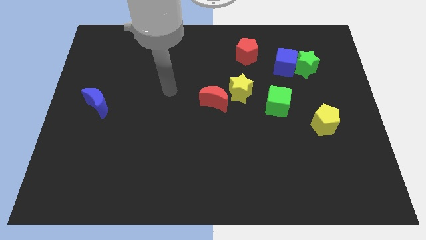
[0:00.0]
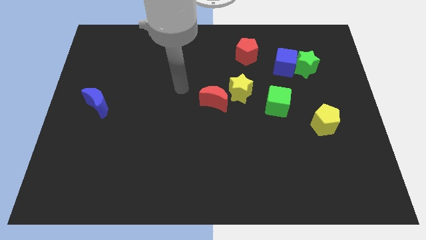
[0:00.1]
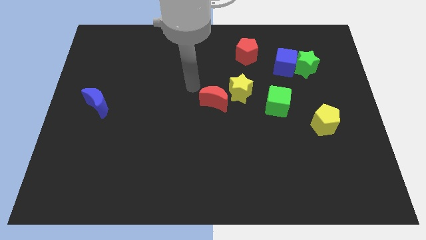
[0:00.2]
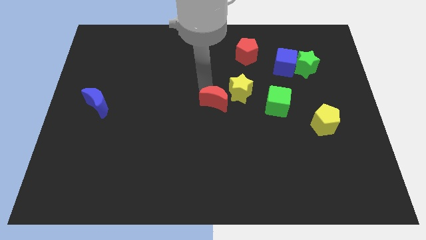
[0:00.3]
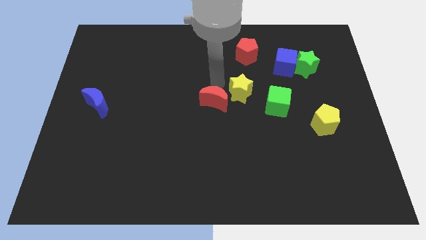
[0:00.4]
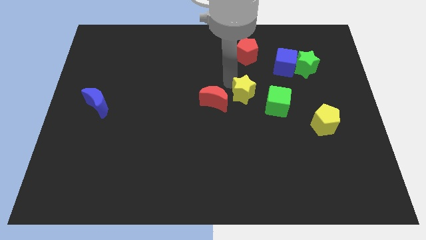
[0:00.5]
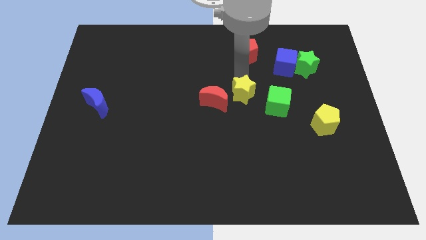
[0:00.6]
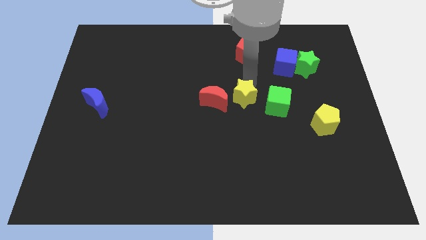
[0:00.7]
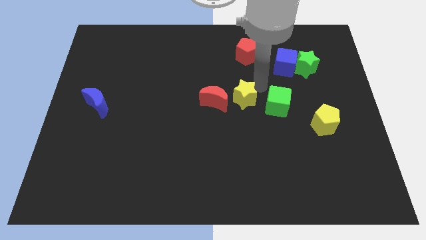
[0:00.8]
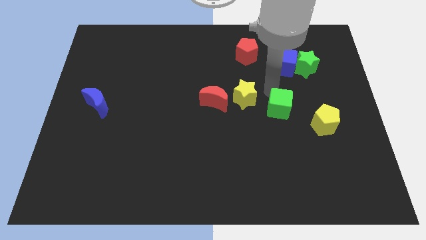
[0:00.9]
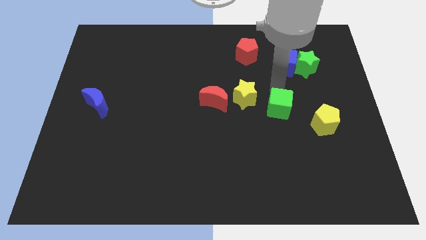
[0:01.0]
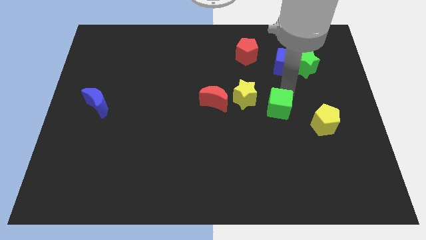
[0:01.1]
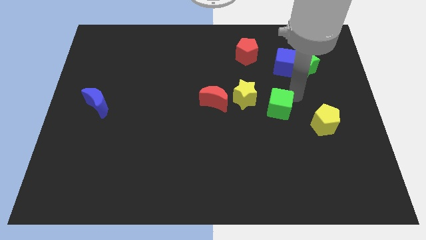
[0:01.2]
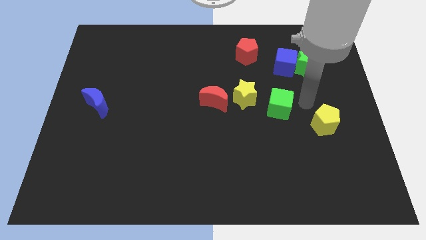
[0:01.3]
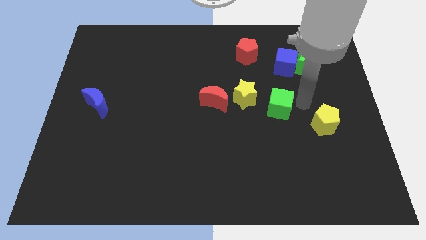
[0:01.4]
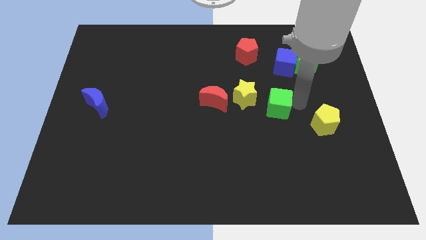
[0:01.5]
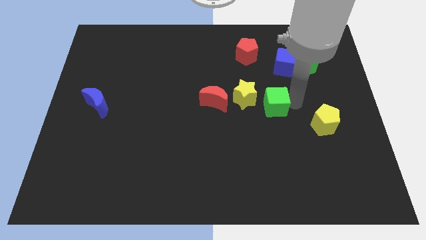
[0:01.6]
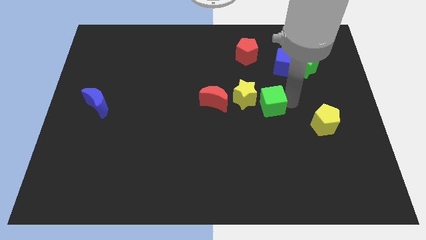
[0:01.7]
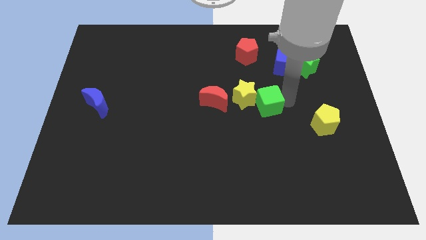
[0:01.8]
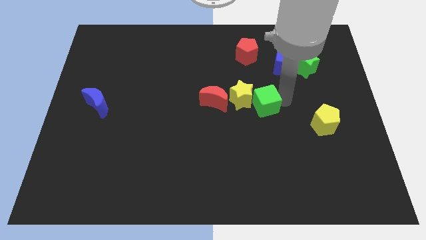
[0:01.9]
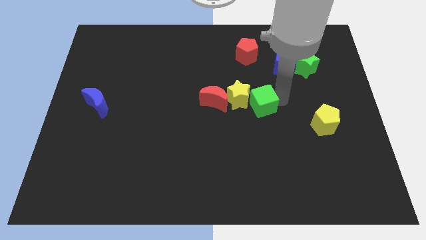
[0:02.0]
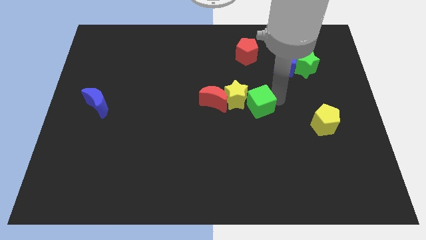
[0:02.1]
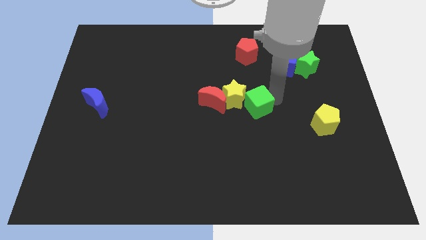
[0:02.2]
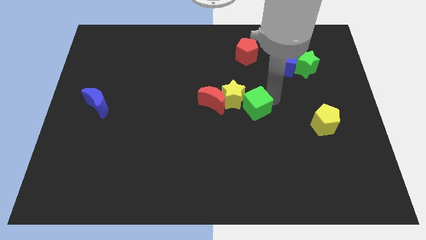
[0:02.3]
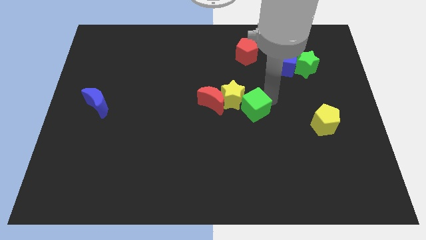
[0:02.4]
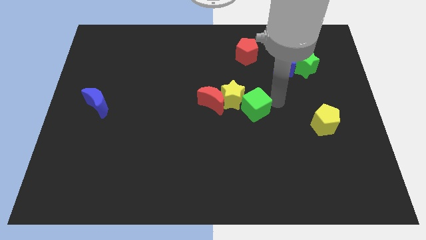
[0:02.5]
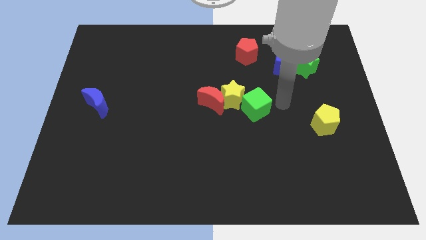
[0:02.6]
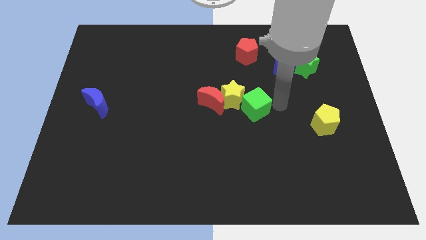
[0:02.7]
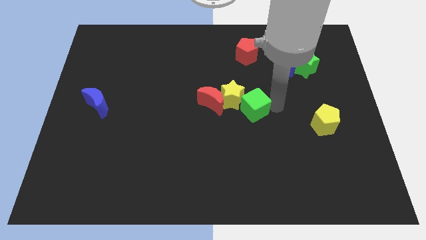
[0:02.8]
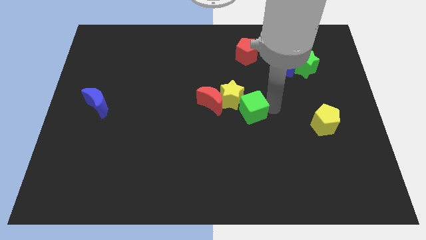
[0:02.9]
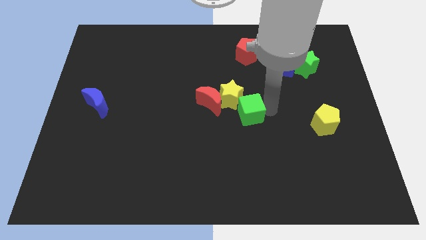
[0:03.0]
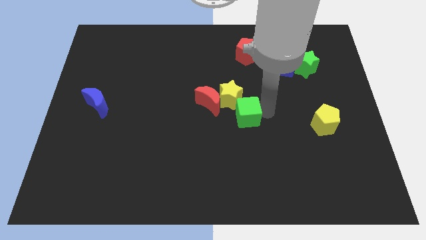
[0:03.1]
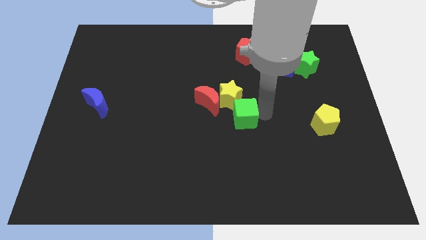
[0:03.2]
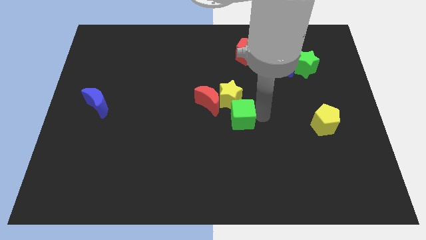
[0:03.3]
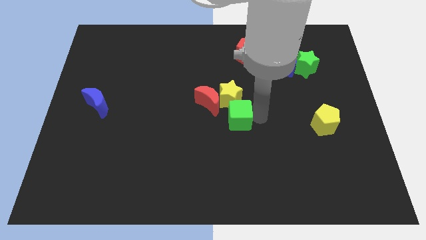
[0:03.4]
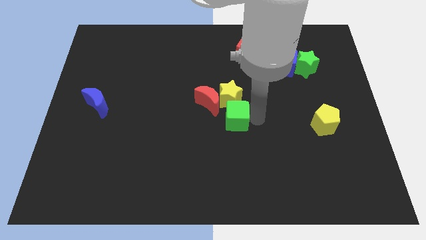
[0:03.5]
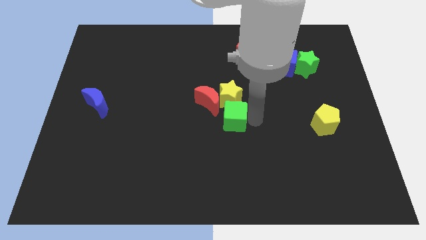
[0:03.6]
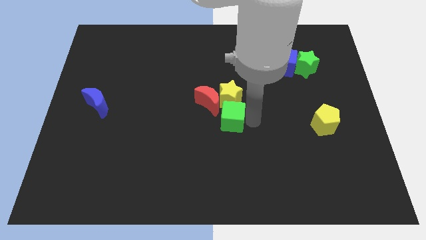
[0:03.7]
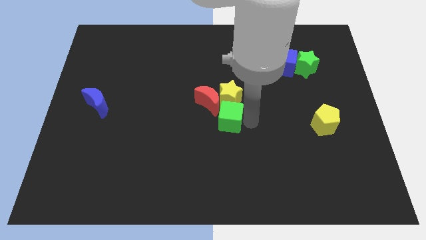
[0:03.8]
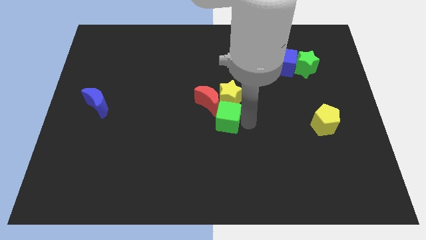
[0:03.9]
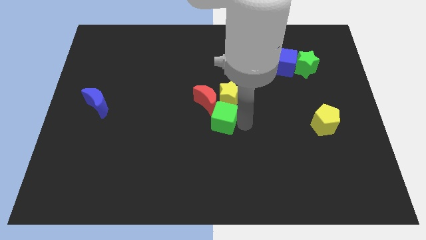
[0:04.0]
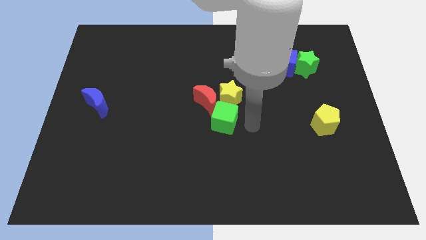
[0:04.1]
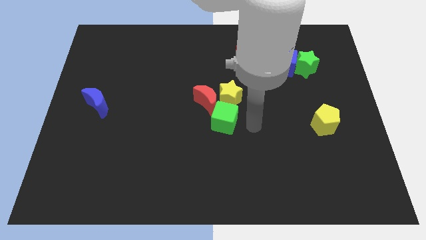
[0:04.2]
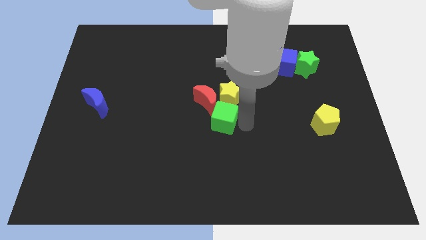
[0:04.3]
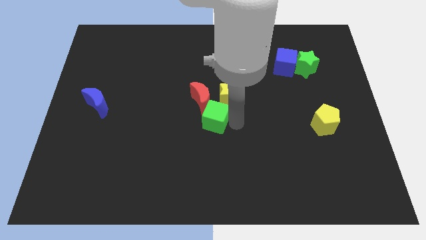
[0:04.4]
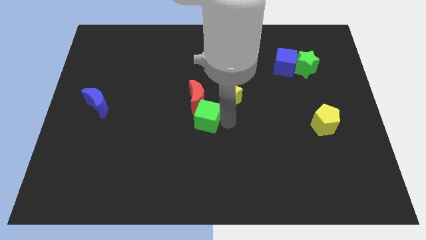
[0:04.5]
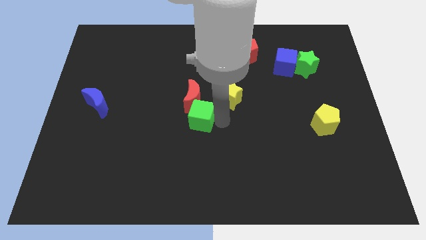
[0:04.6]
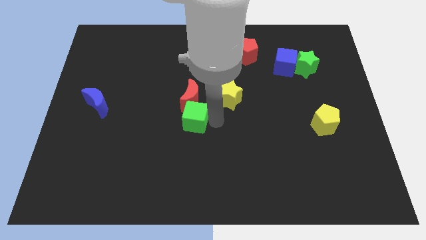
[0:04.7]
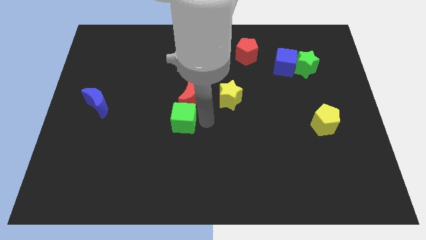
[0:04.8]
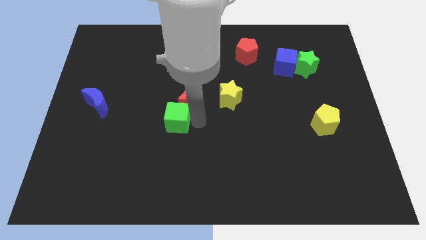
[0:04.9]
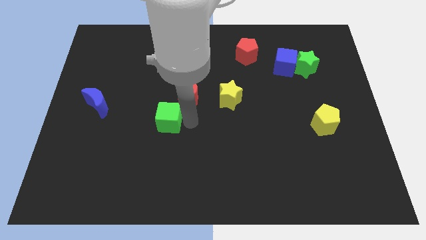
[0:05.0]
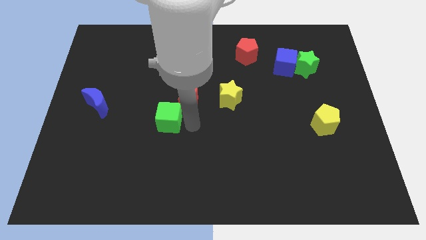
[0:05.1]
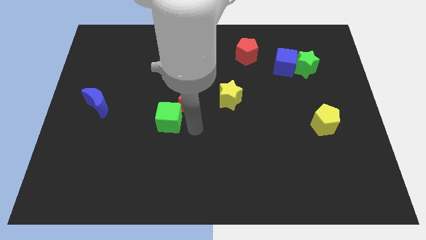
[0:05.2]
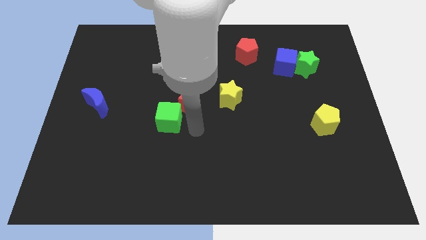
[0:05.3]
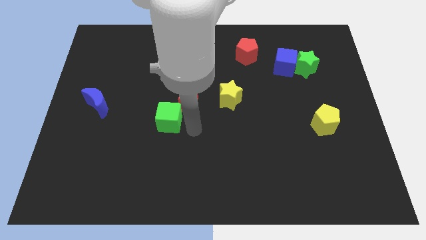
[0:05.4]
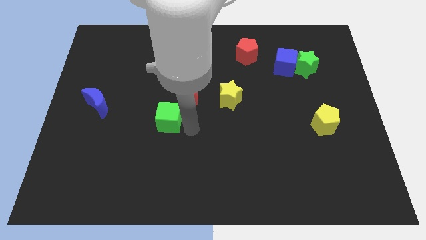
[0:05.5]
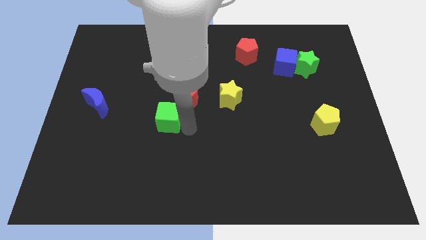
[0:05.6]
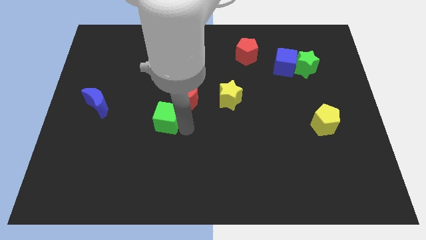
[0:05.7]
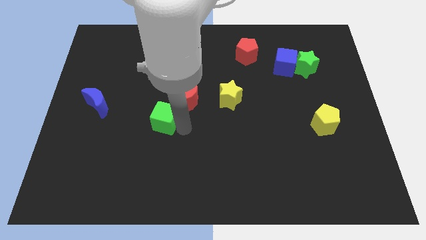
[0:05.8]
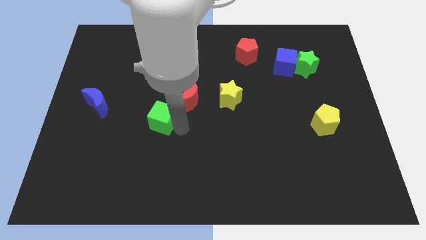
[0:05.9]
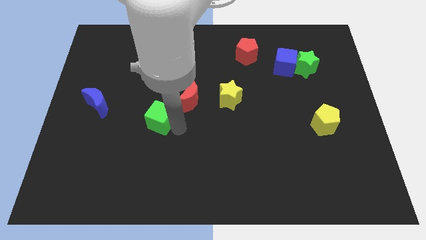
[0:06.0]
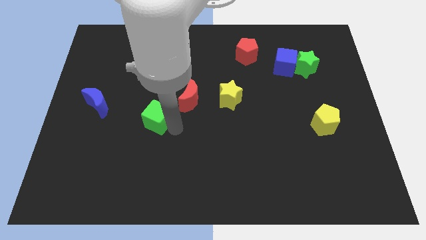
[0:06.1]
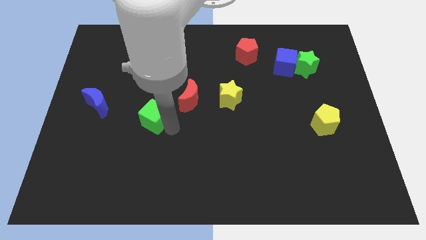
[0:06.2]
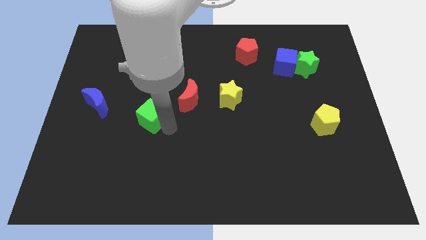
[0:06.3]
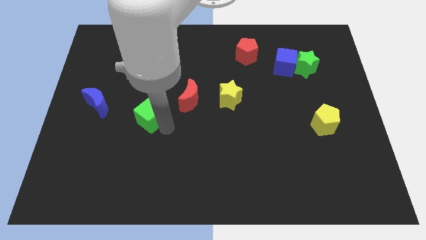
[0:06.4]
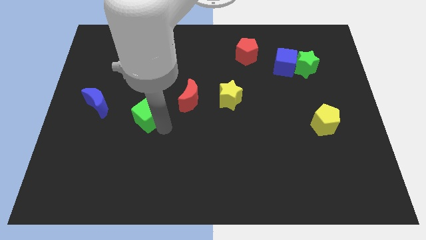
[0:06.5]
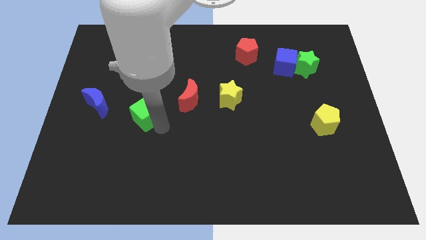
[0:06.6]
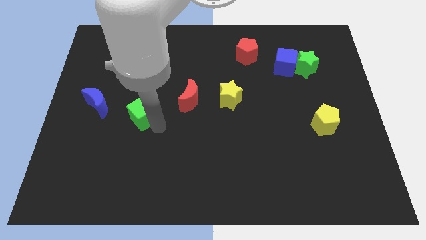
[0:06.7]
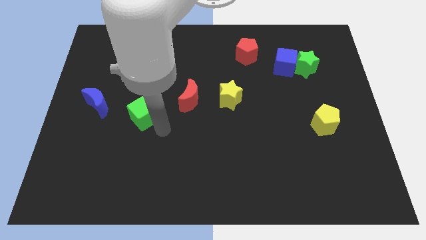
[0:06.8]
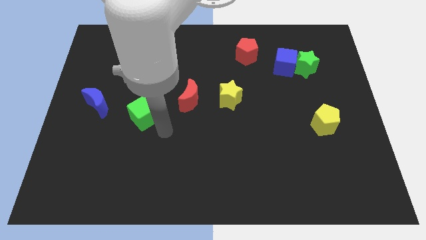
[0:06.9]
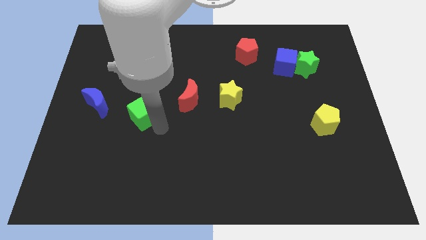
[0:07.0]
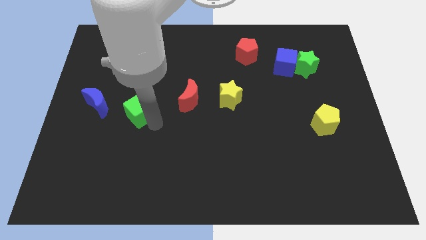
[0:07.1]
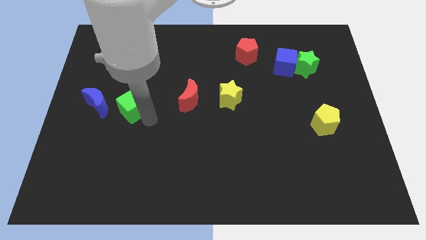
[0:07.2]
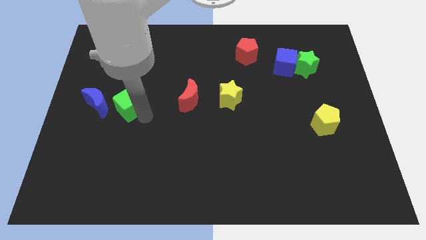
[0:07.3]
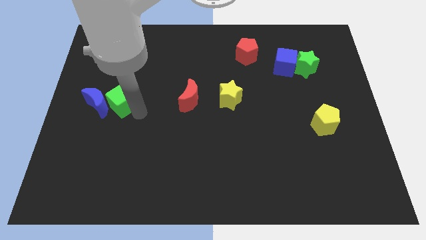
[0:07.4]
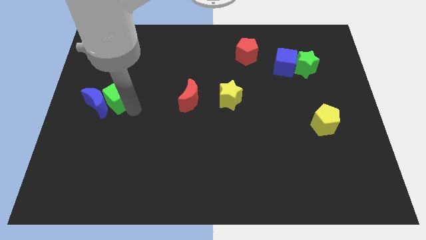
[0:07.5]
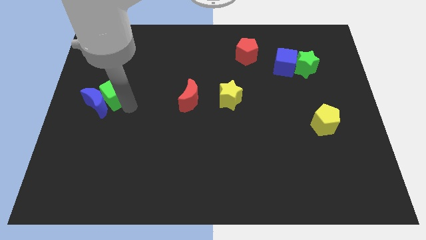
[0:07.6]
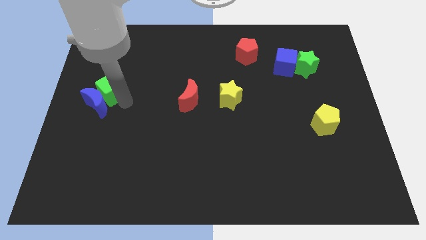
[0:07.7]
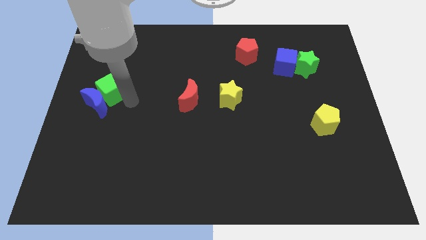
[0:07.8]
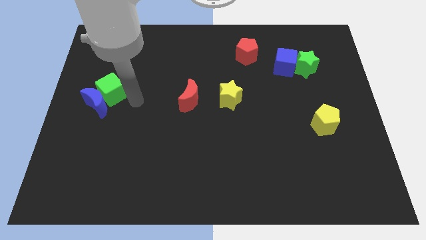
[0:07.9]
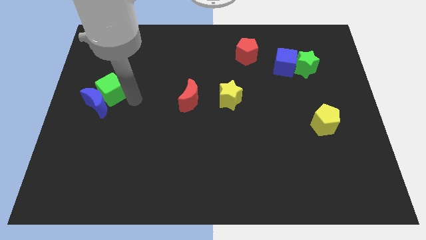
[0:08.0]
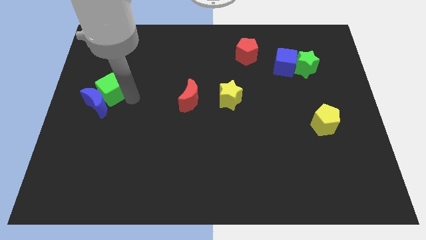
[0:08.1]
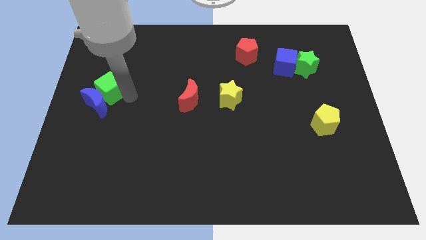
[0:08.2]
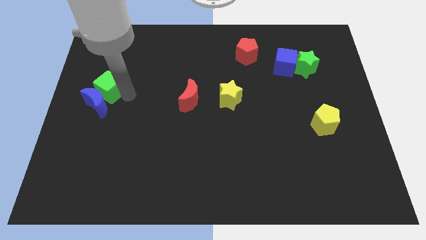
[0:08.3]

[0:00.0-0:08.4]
slide the green cube to the center left
